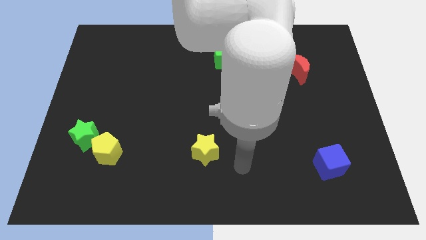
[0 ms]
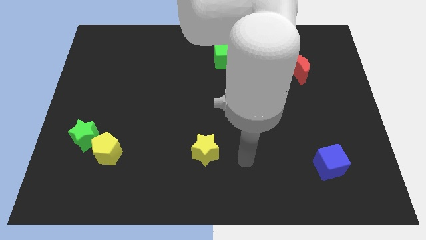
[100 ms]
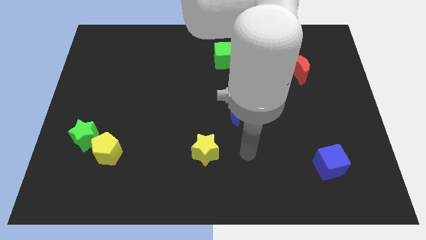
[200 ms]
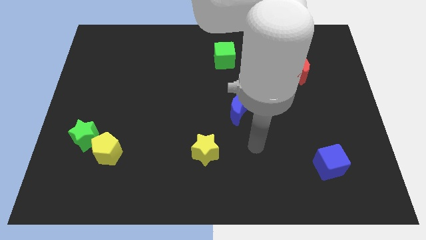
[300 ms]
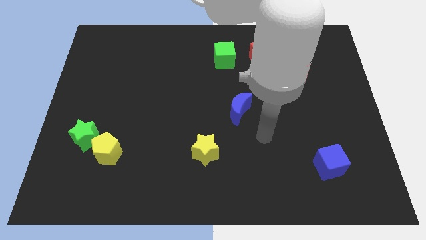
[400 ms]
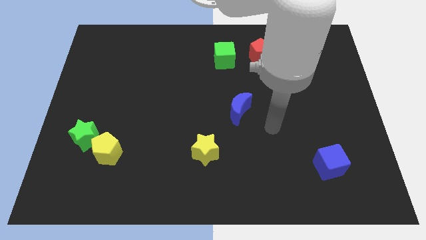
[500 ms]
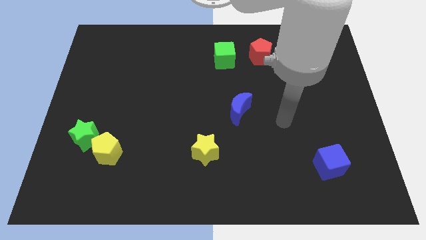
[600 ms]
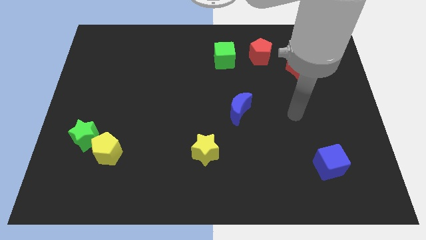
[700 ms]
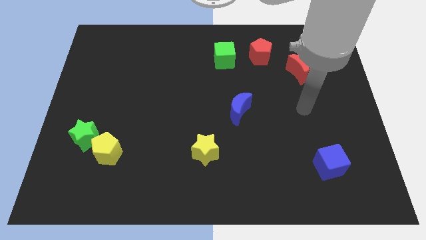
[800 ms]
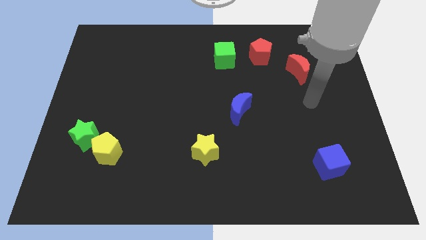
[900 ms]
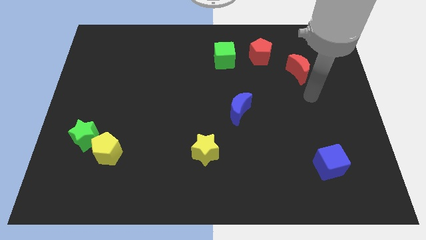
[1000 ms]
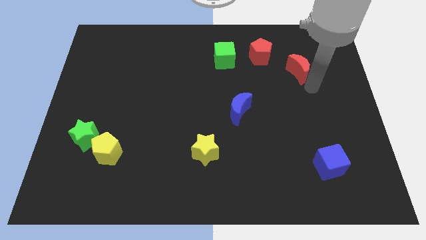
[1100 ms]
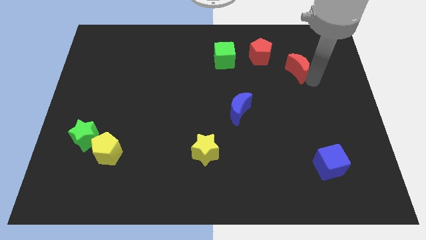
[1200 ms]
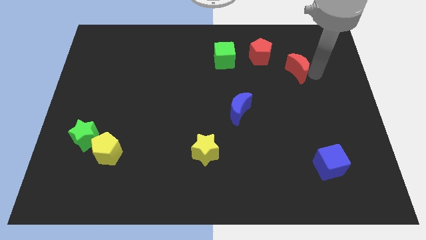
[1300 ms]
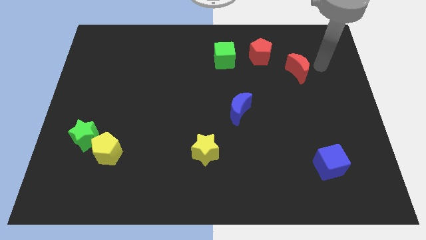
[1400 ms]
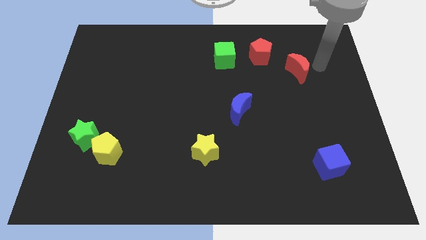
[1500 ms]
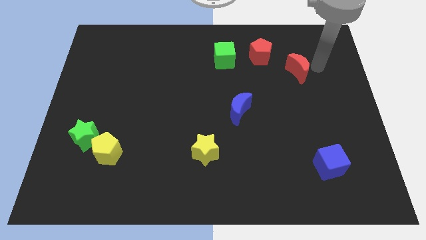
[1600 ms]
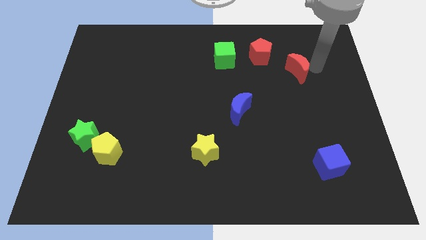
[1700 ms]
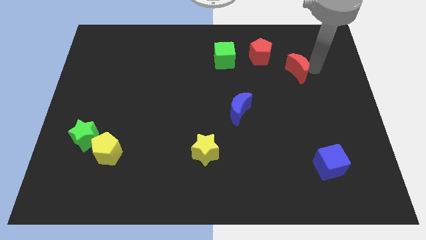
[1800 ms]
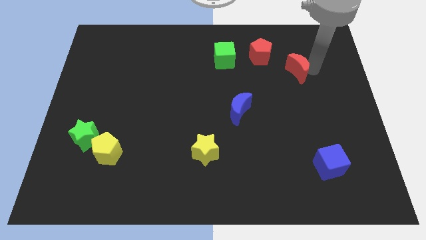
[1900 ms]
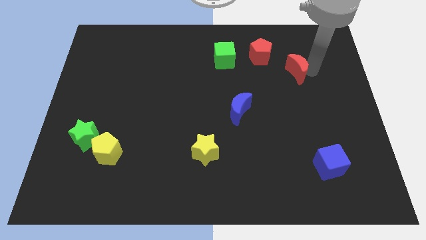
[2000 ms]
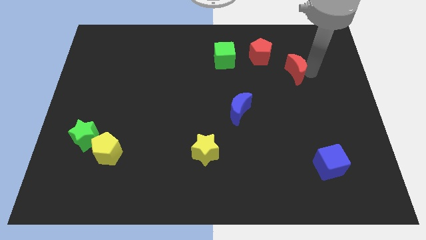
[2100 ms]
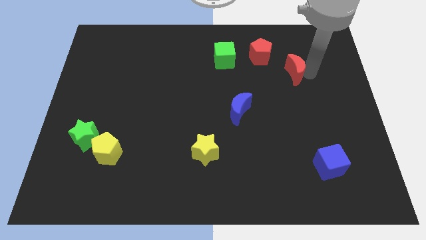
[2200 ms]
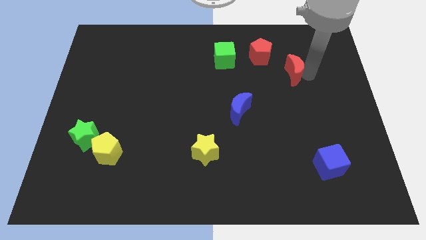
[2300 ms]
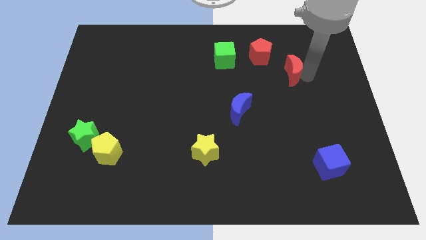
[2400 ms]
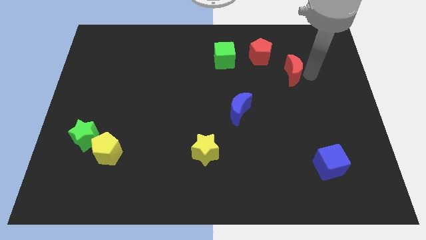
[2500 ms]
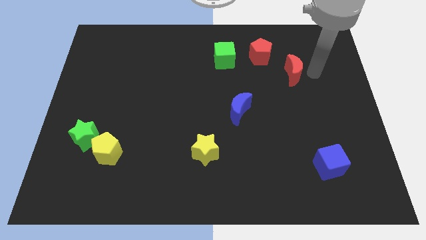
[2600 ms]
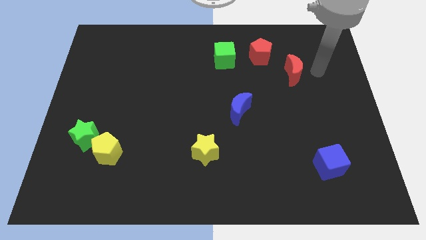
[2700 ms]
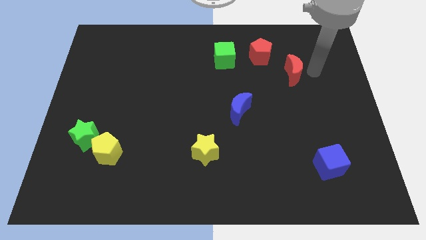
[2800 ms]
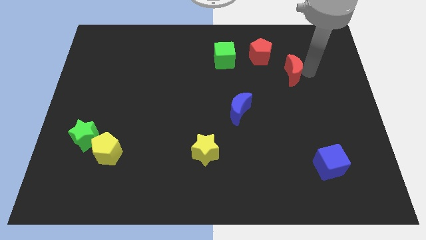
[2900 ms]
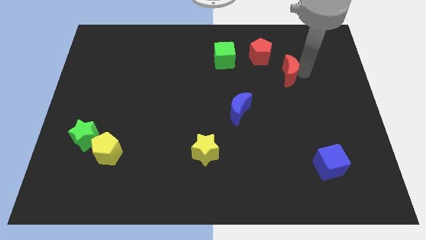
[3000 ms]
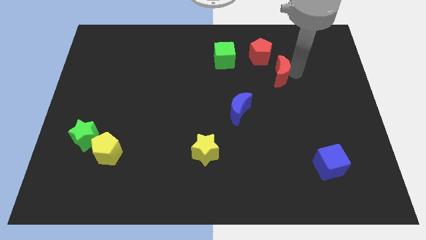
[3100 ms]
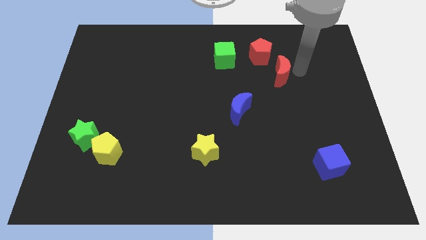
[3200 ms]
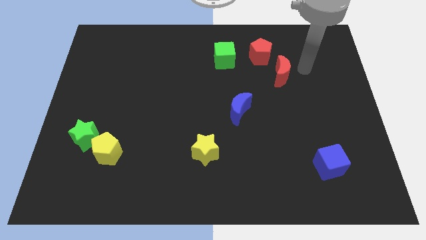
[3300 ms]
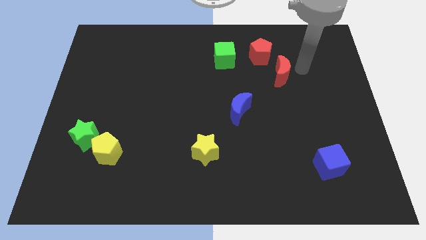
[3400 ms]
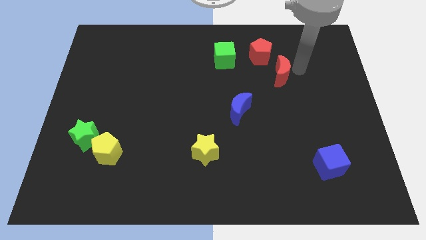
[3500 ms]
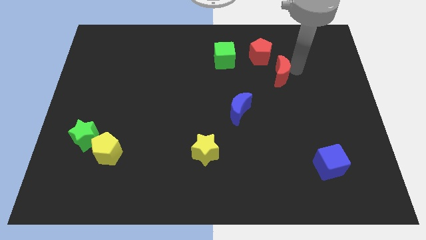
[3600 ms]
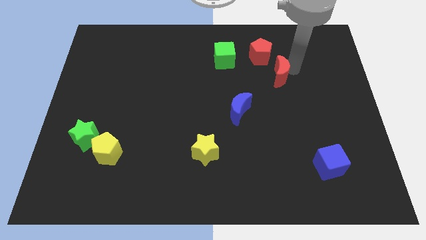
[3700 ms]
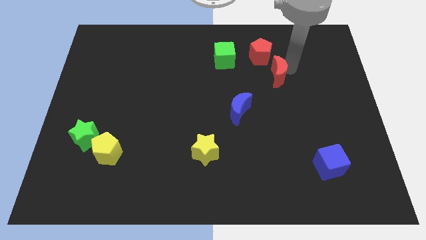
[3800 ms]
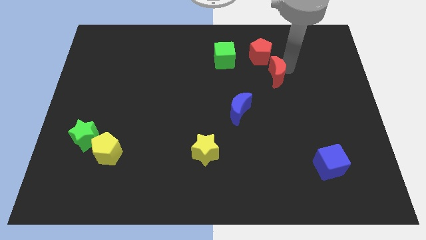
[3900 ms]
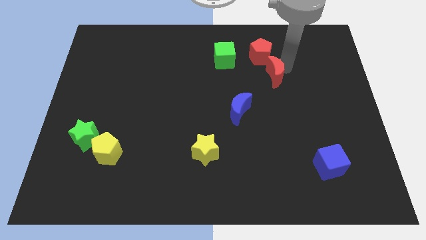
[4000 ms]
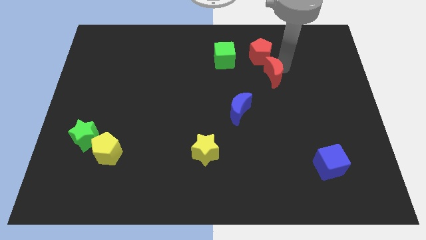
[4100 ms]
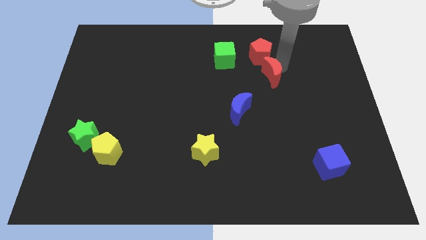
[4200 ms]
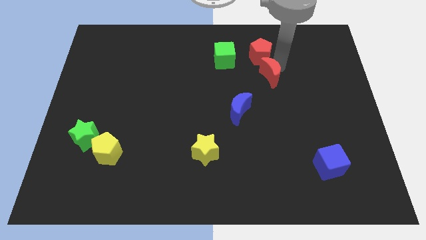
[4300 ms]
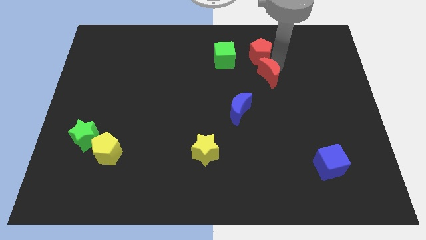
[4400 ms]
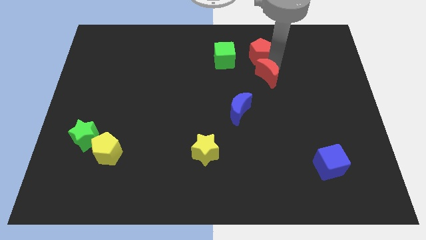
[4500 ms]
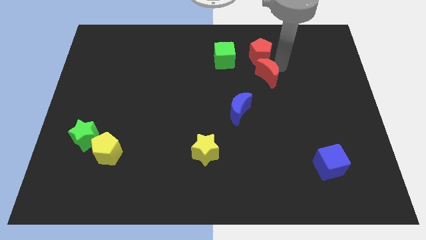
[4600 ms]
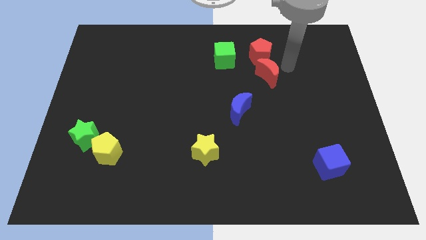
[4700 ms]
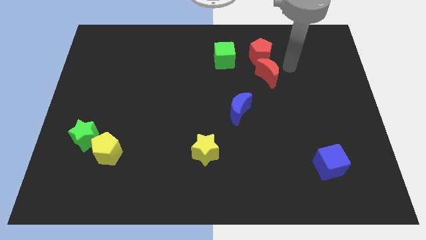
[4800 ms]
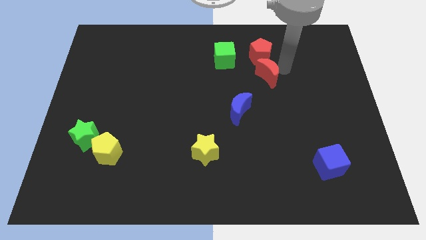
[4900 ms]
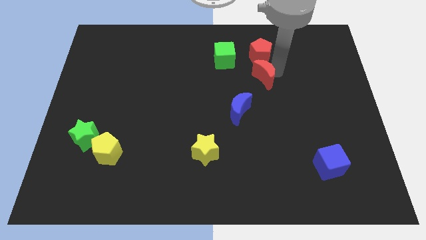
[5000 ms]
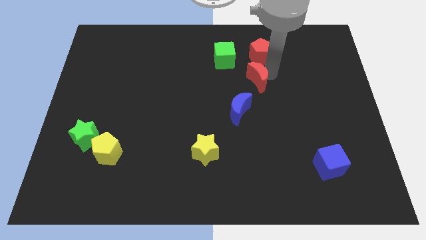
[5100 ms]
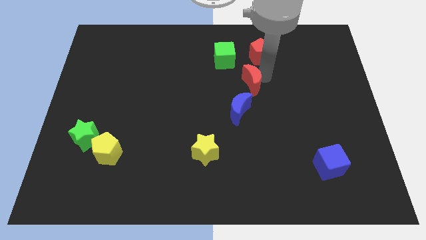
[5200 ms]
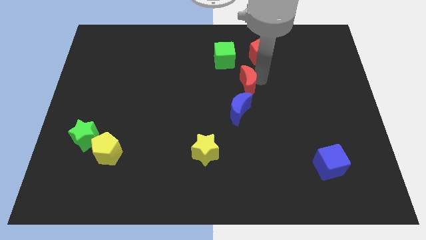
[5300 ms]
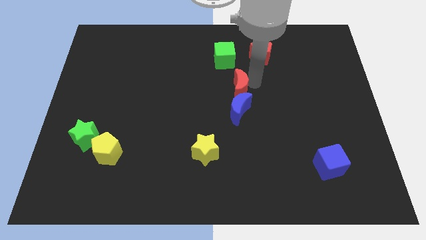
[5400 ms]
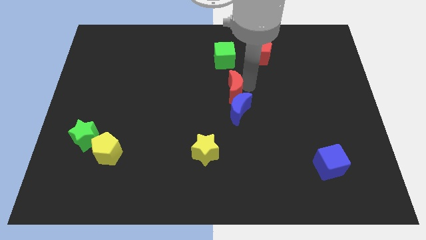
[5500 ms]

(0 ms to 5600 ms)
put the red moon to the top left of the blue moon

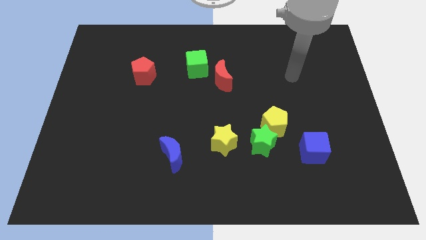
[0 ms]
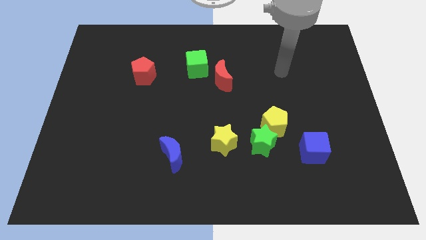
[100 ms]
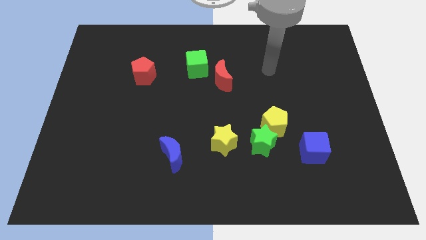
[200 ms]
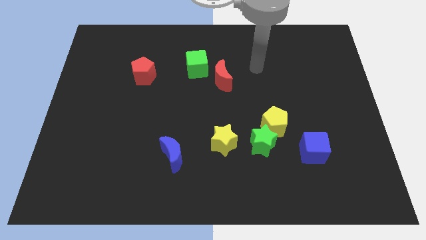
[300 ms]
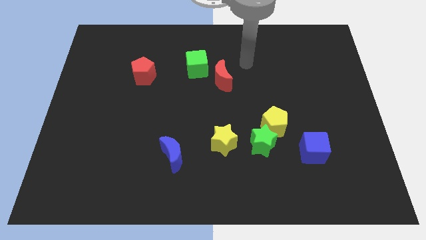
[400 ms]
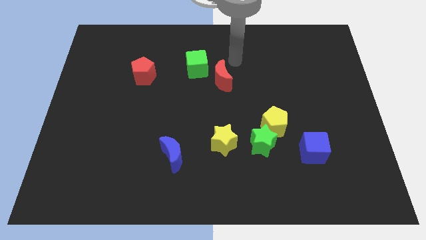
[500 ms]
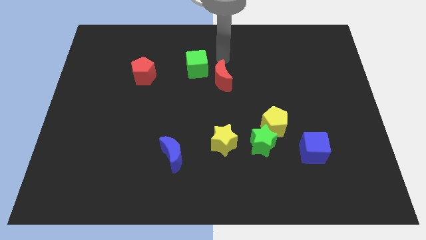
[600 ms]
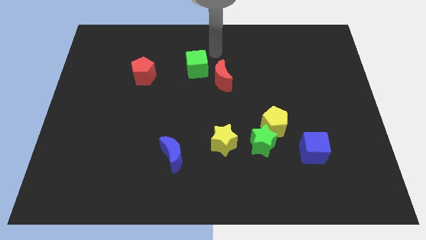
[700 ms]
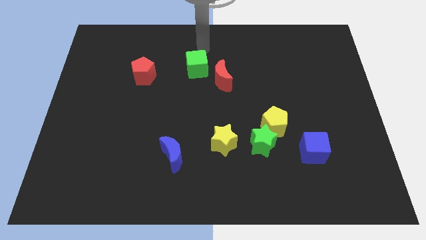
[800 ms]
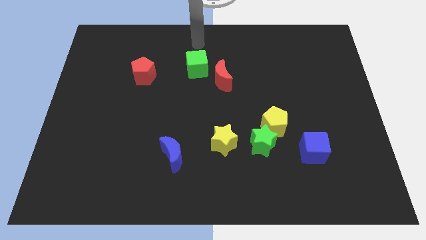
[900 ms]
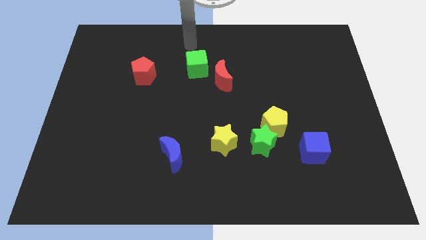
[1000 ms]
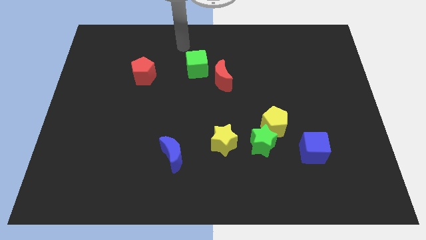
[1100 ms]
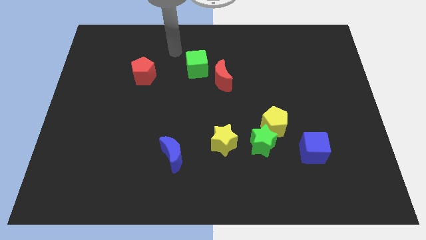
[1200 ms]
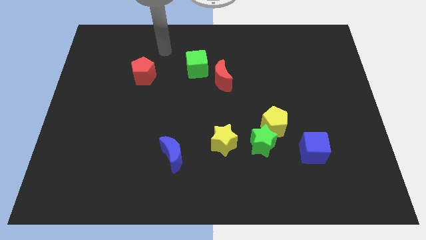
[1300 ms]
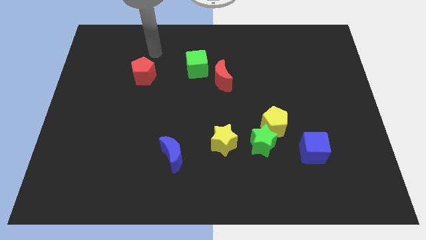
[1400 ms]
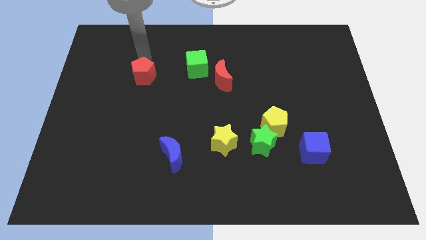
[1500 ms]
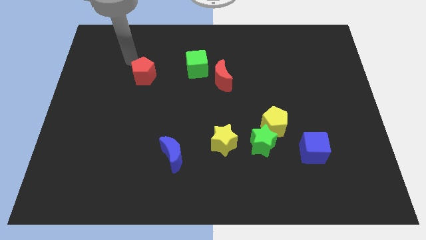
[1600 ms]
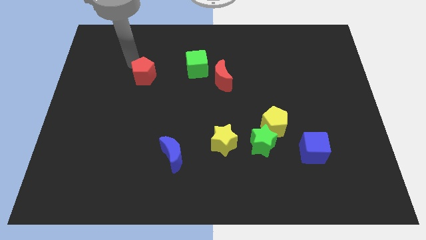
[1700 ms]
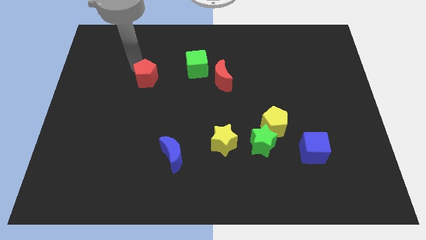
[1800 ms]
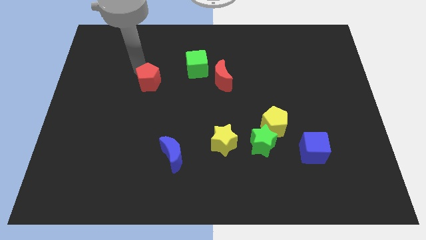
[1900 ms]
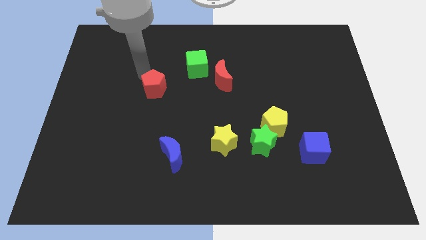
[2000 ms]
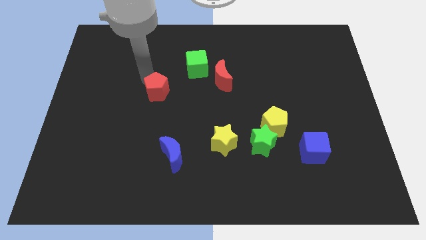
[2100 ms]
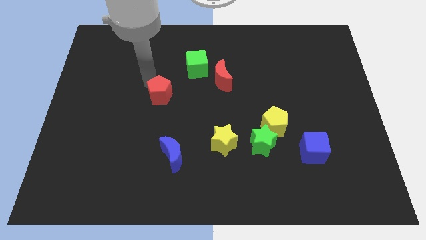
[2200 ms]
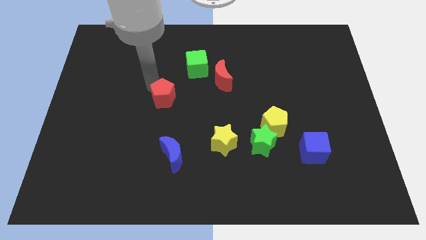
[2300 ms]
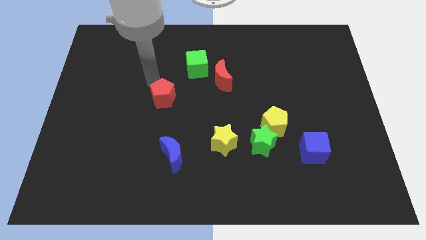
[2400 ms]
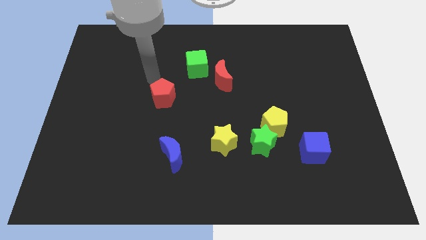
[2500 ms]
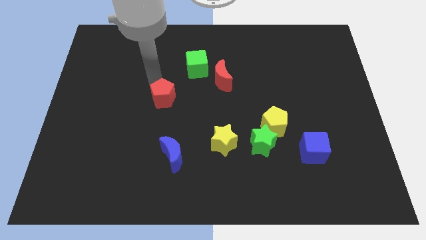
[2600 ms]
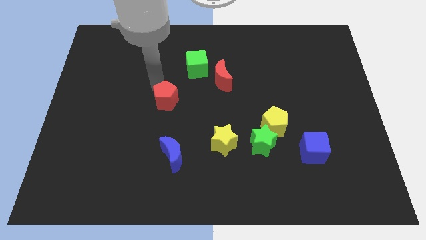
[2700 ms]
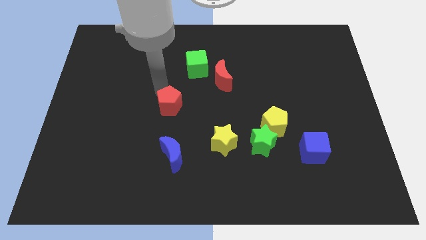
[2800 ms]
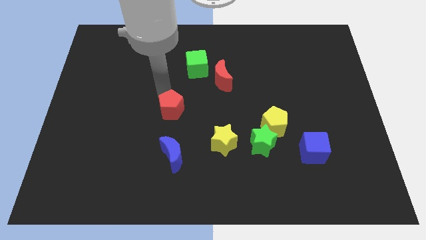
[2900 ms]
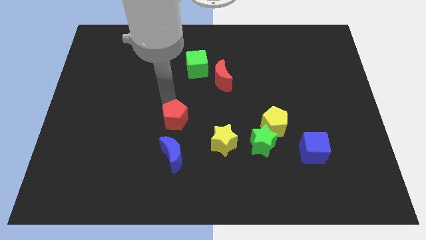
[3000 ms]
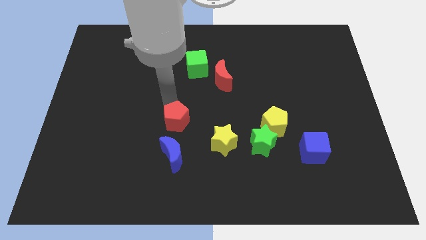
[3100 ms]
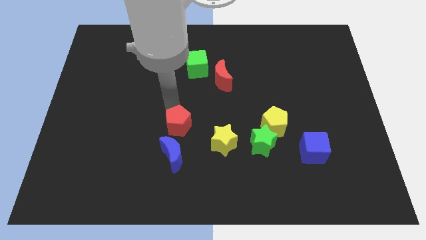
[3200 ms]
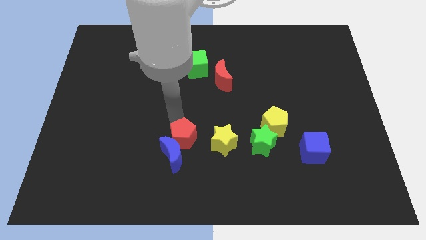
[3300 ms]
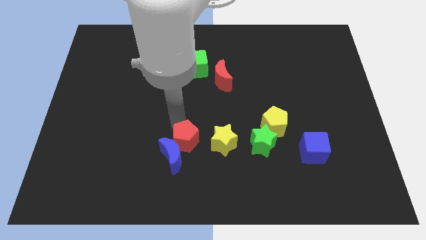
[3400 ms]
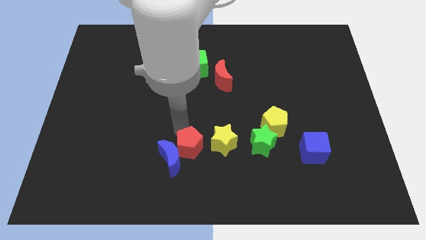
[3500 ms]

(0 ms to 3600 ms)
push the red pentagon to the bottom left of the yellow star
